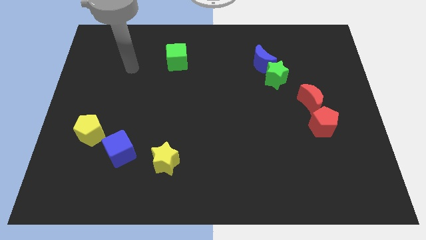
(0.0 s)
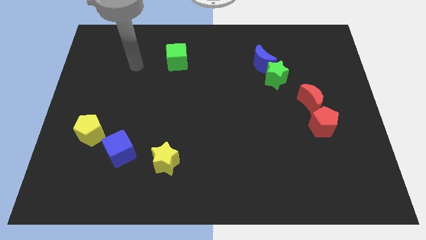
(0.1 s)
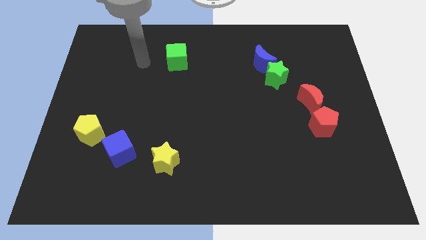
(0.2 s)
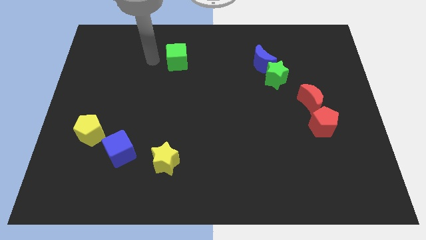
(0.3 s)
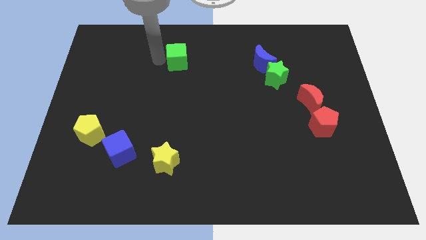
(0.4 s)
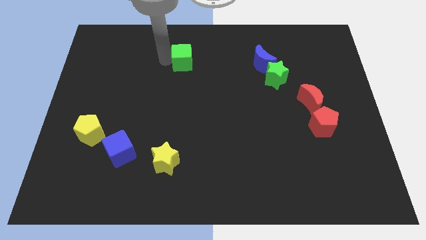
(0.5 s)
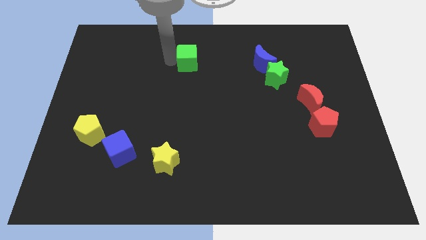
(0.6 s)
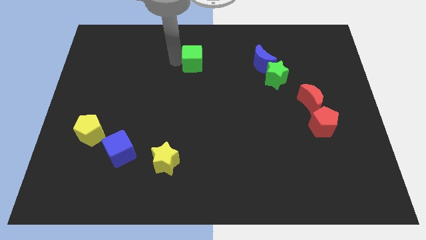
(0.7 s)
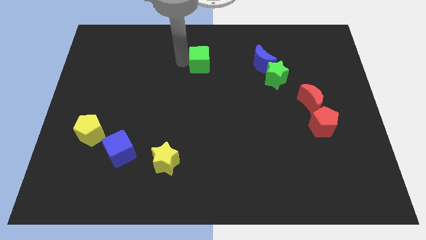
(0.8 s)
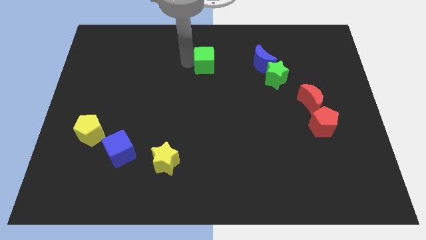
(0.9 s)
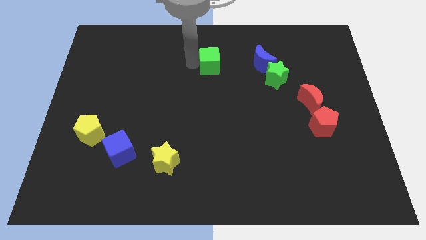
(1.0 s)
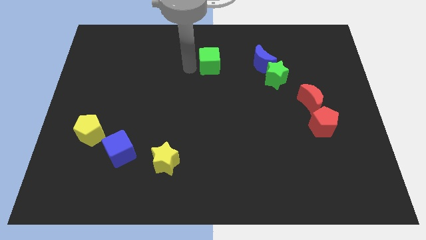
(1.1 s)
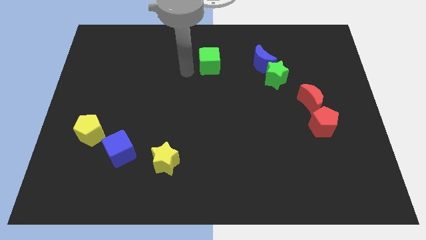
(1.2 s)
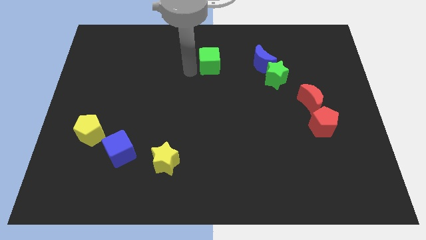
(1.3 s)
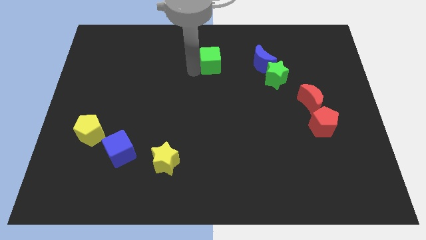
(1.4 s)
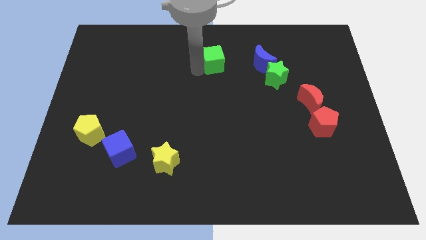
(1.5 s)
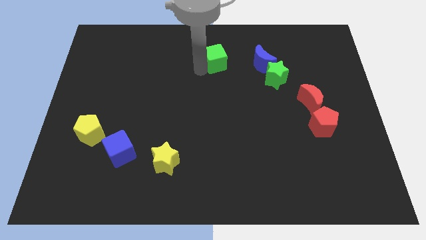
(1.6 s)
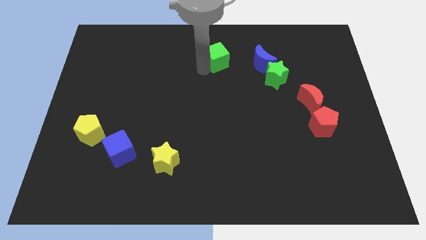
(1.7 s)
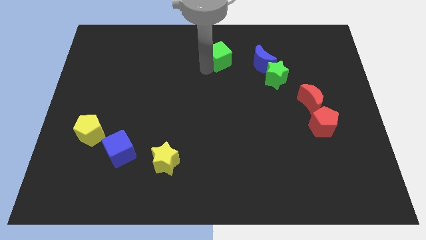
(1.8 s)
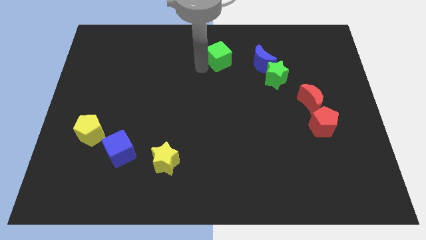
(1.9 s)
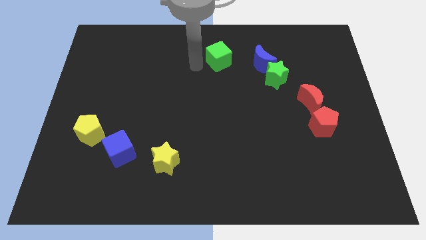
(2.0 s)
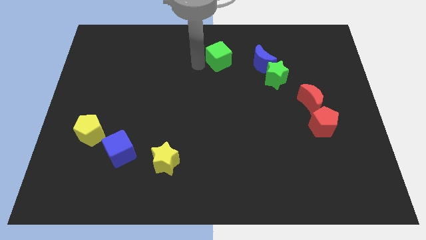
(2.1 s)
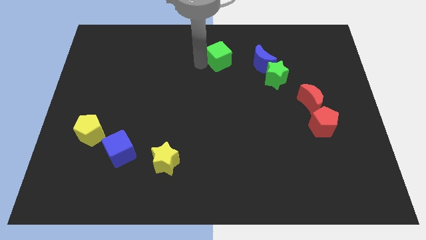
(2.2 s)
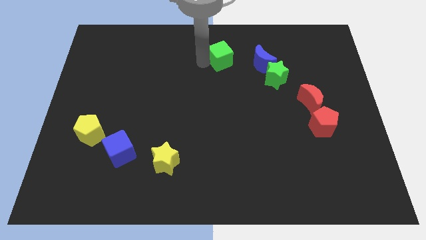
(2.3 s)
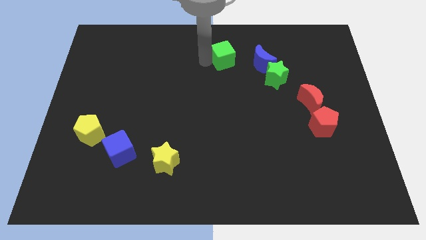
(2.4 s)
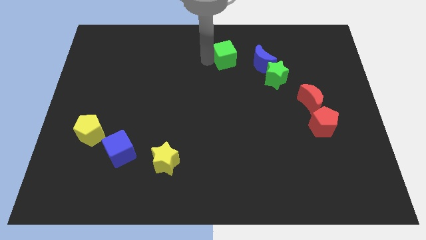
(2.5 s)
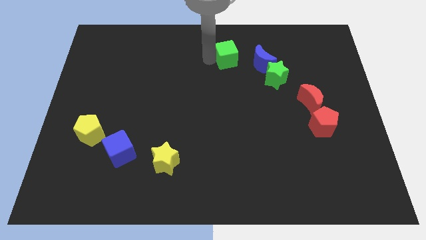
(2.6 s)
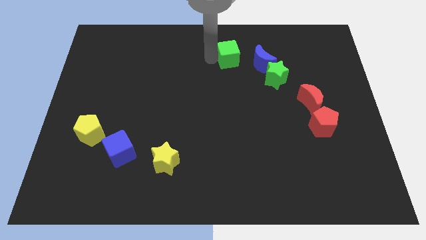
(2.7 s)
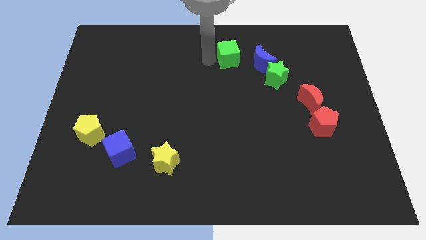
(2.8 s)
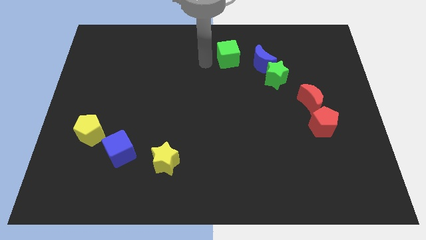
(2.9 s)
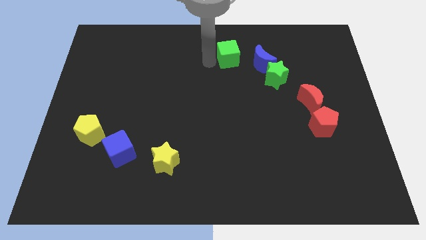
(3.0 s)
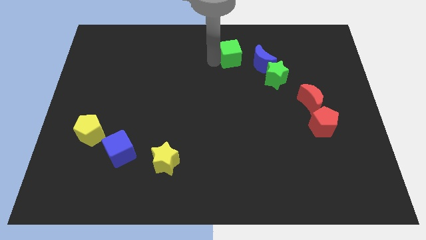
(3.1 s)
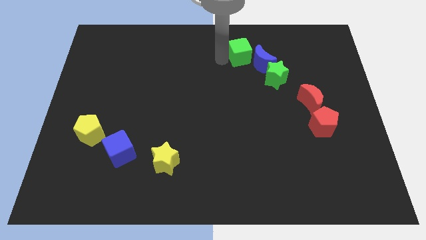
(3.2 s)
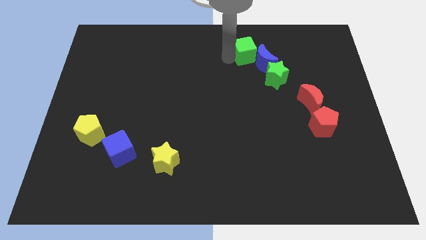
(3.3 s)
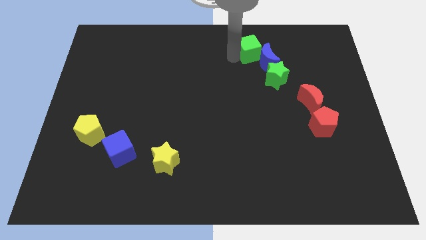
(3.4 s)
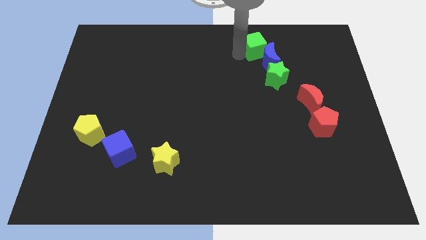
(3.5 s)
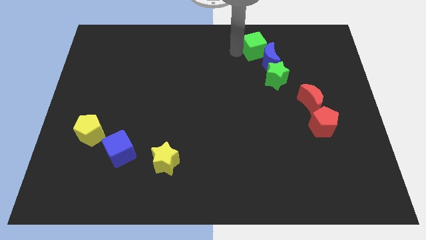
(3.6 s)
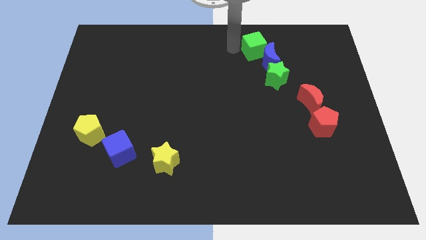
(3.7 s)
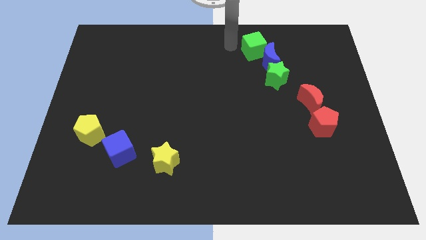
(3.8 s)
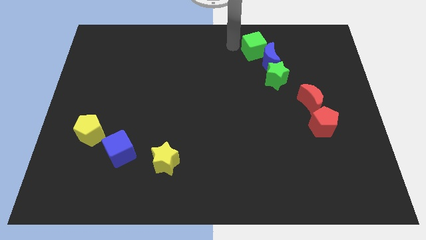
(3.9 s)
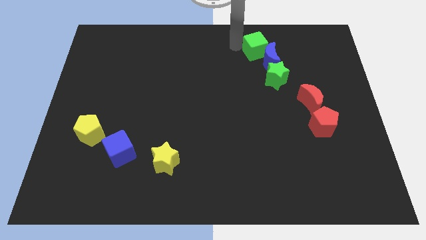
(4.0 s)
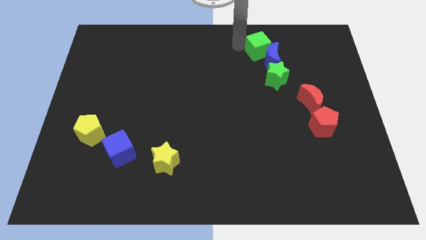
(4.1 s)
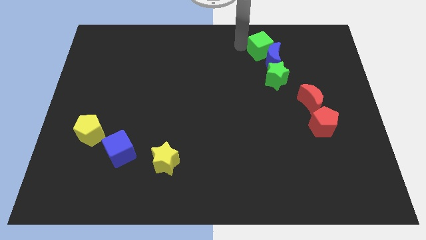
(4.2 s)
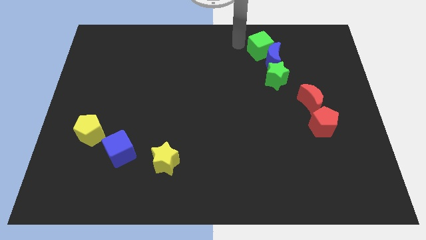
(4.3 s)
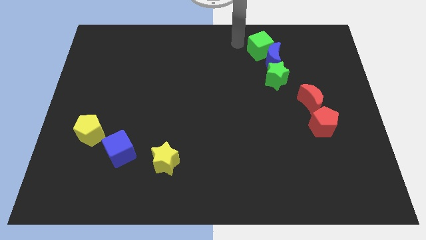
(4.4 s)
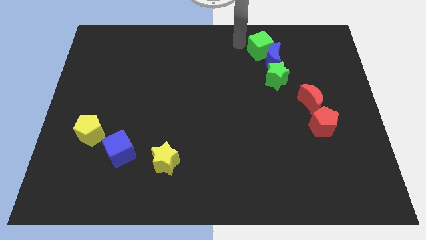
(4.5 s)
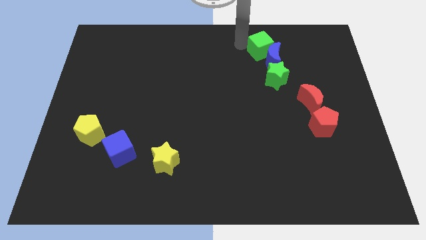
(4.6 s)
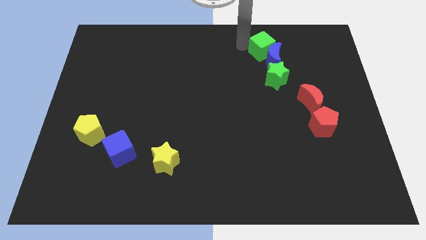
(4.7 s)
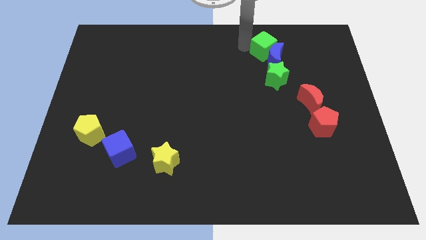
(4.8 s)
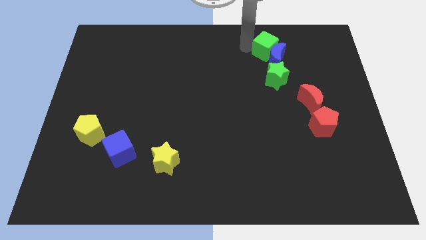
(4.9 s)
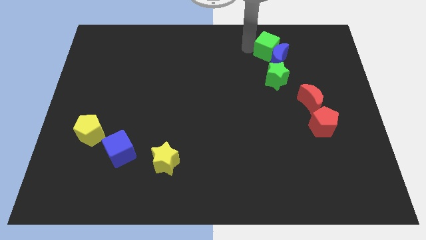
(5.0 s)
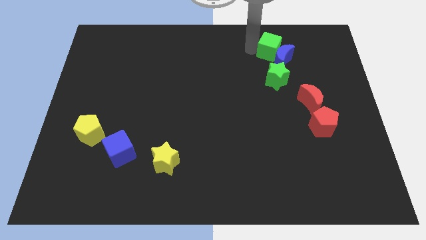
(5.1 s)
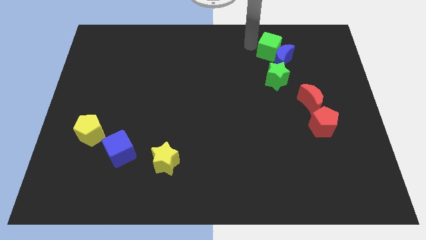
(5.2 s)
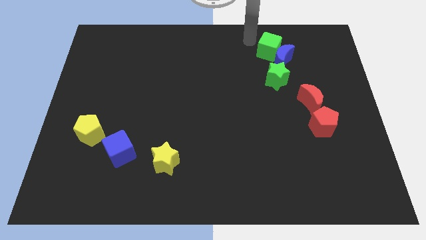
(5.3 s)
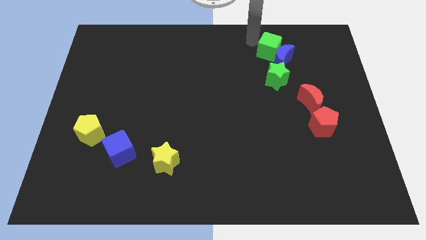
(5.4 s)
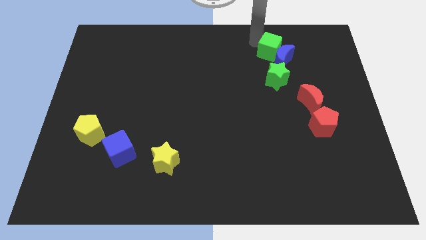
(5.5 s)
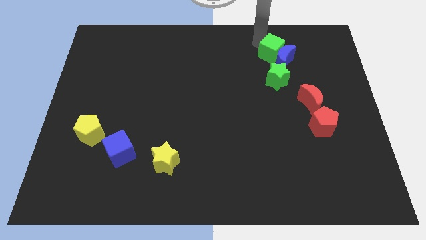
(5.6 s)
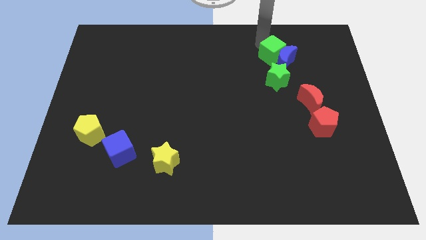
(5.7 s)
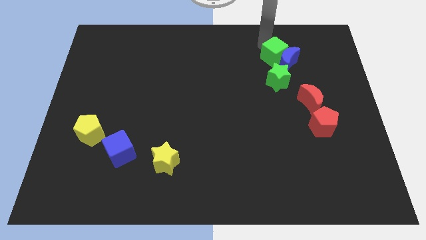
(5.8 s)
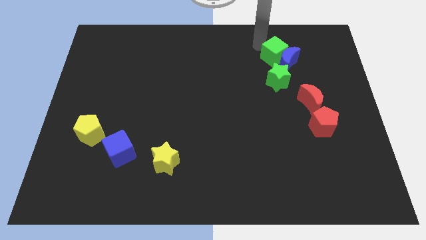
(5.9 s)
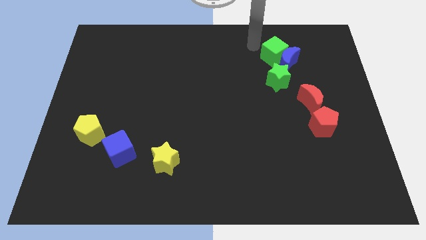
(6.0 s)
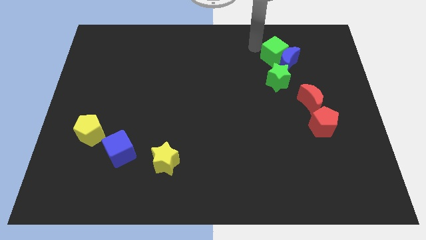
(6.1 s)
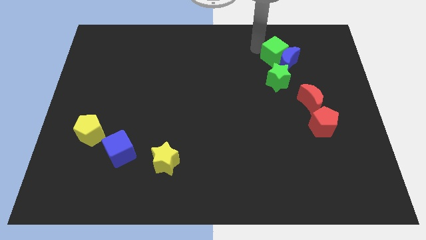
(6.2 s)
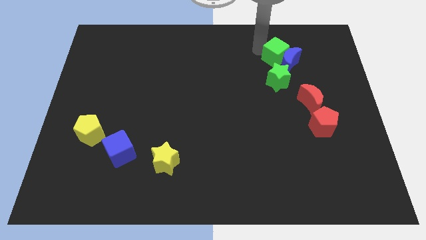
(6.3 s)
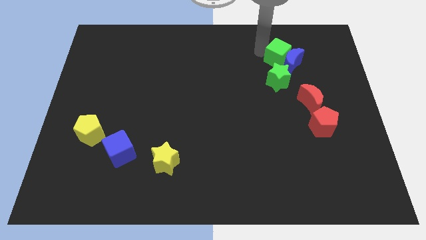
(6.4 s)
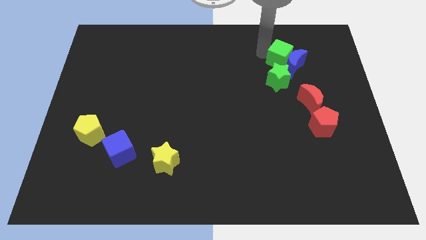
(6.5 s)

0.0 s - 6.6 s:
move the green cube diagonally up and to the right of the green star

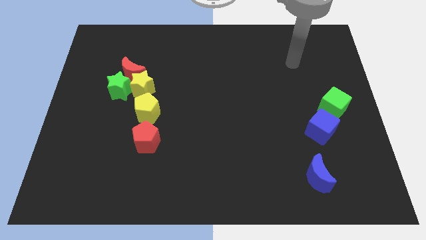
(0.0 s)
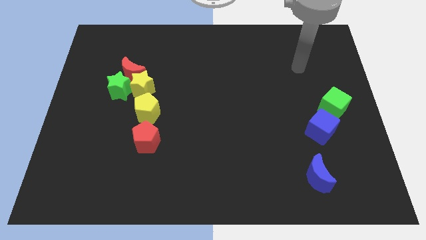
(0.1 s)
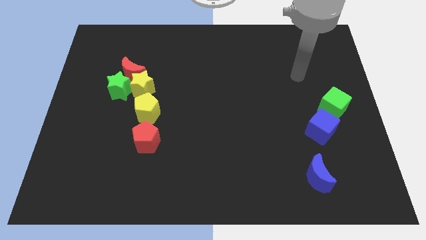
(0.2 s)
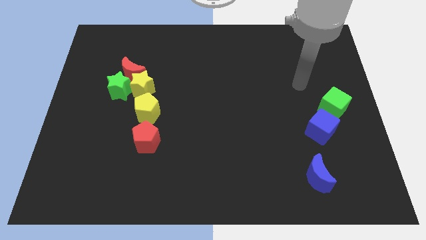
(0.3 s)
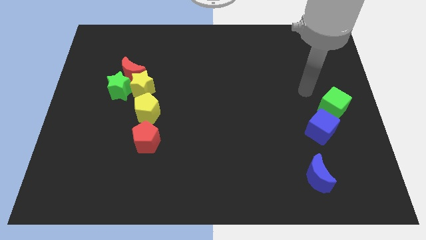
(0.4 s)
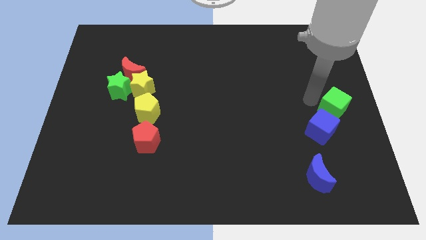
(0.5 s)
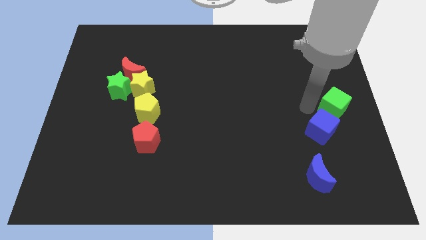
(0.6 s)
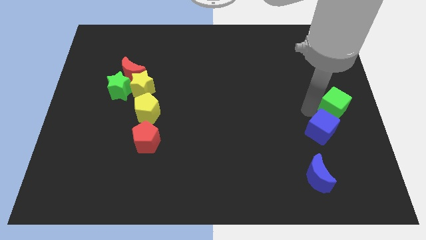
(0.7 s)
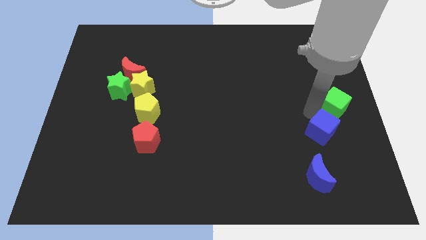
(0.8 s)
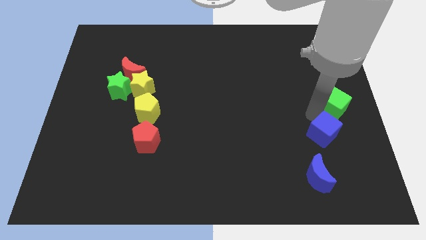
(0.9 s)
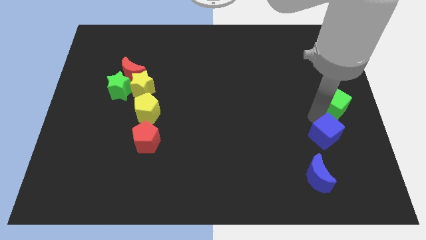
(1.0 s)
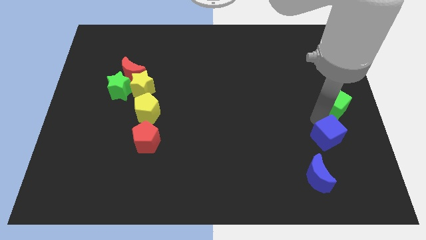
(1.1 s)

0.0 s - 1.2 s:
push the blue cube to the top right of the blue moon
